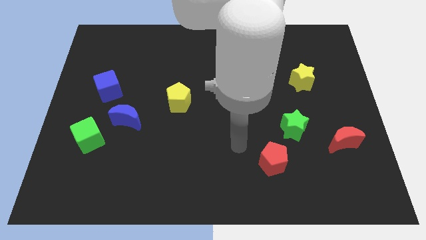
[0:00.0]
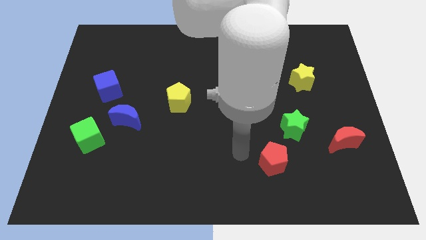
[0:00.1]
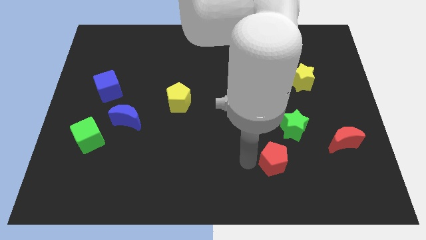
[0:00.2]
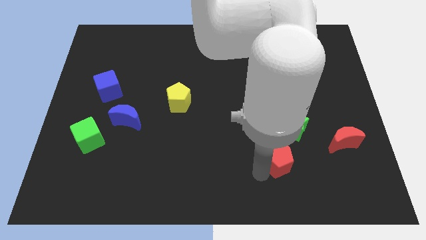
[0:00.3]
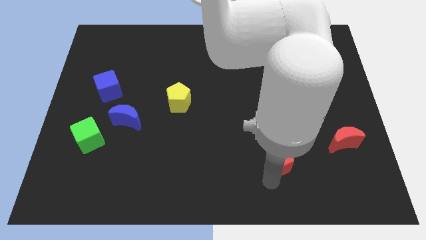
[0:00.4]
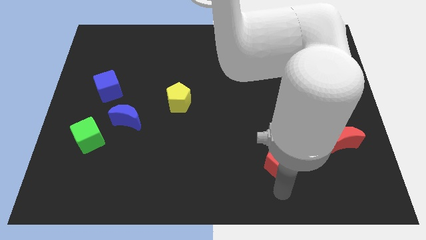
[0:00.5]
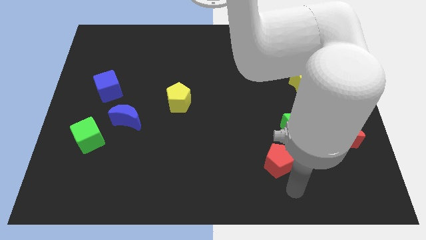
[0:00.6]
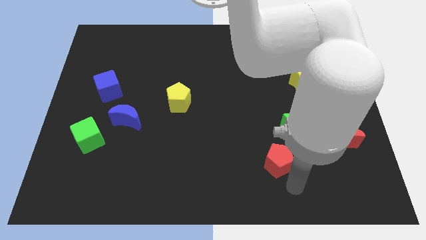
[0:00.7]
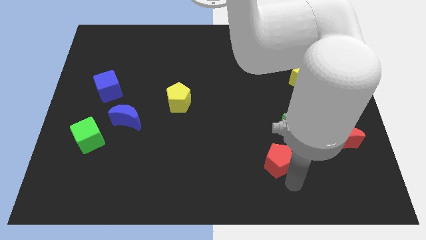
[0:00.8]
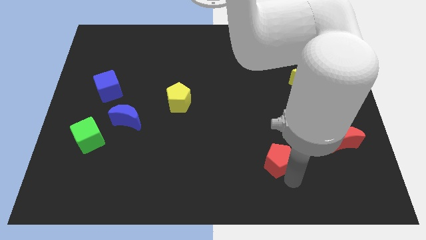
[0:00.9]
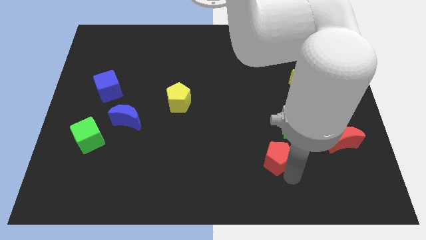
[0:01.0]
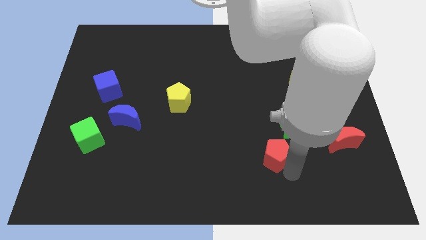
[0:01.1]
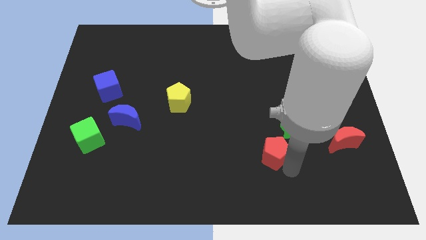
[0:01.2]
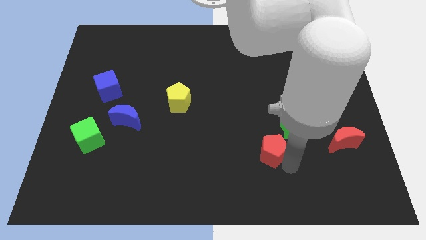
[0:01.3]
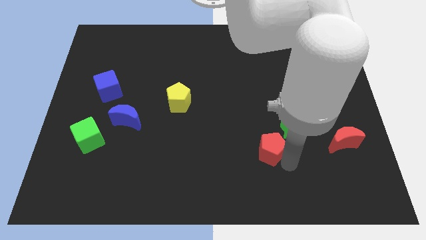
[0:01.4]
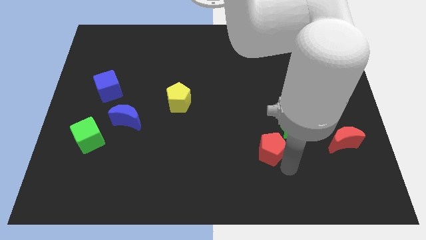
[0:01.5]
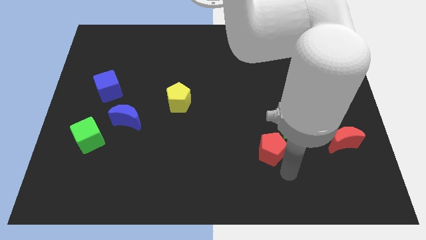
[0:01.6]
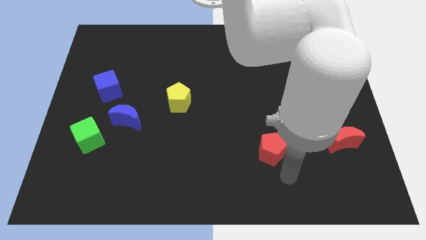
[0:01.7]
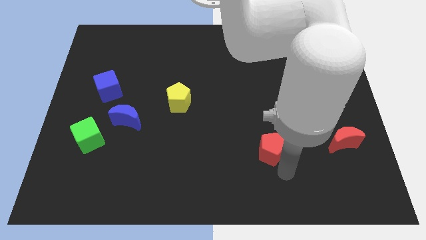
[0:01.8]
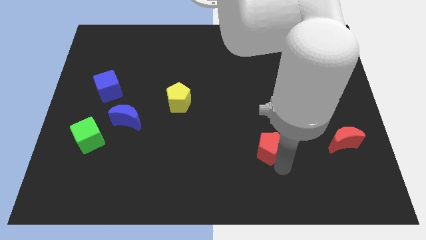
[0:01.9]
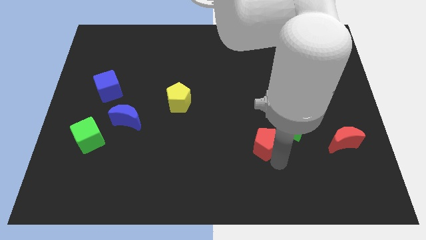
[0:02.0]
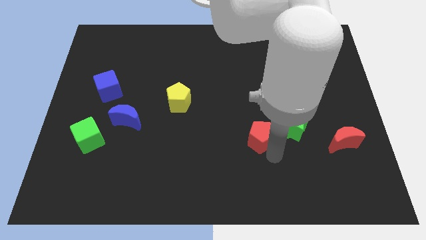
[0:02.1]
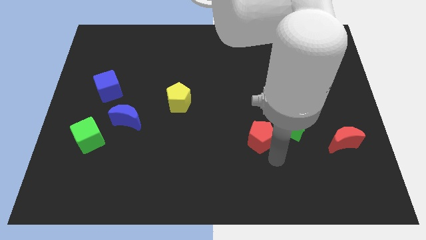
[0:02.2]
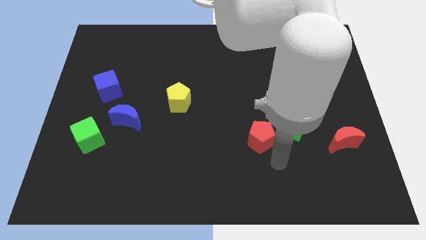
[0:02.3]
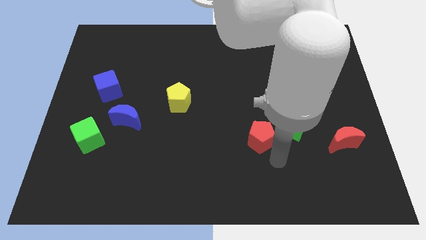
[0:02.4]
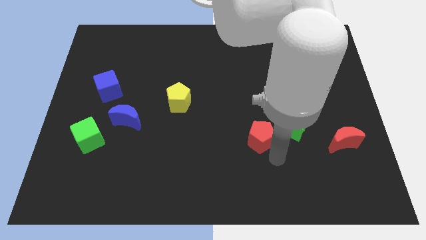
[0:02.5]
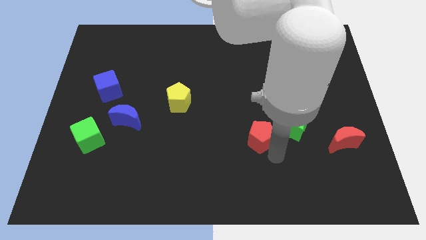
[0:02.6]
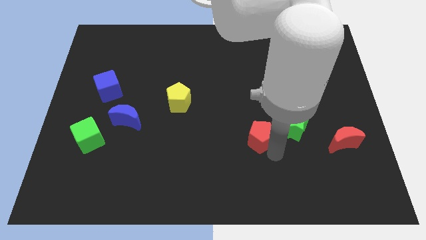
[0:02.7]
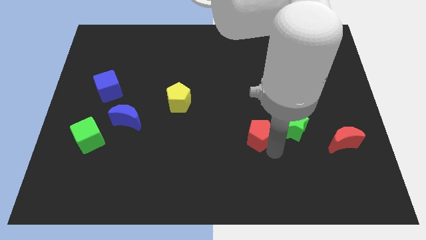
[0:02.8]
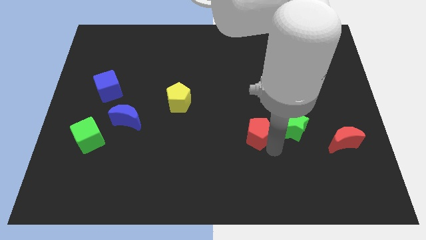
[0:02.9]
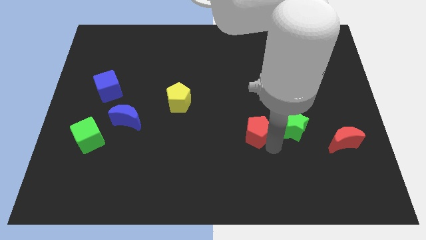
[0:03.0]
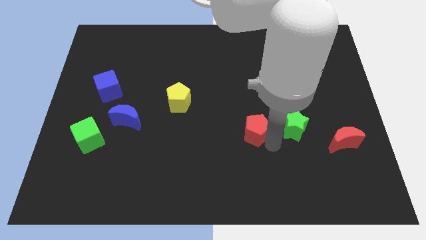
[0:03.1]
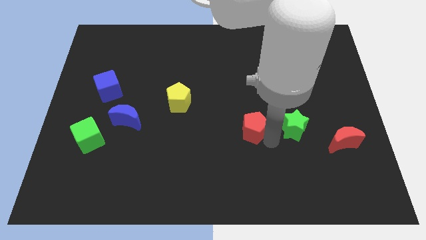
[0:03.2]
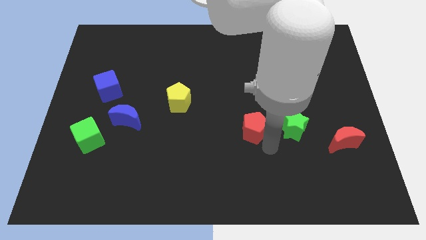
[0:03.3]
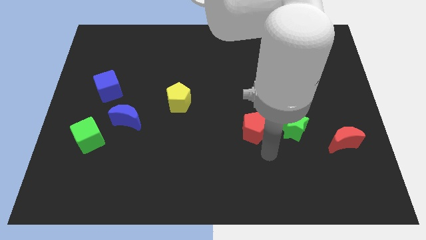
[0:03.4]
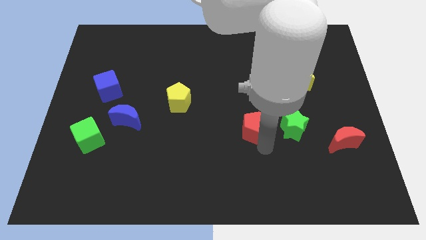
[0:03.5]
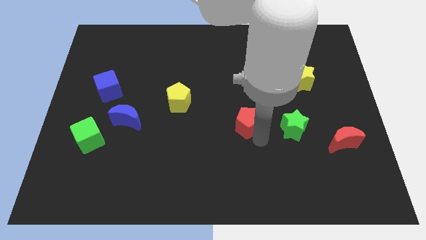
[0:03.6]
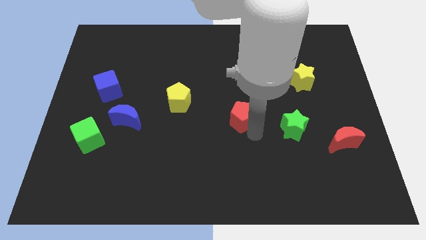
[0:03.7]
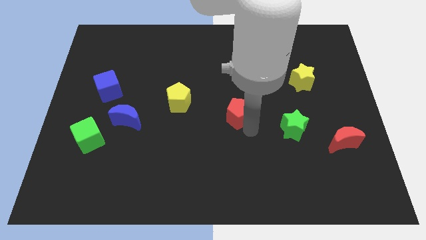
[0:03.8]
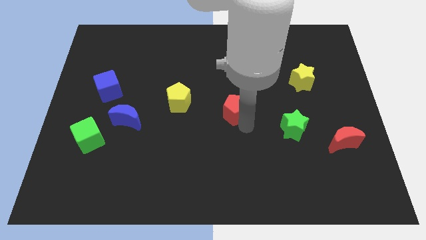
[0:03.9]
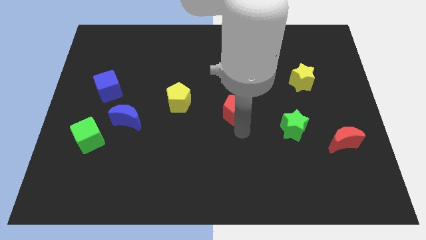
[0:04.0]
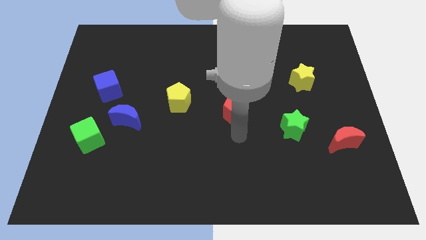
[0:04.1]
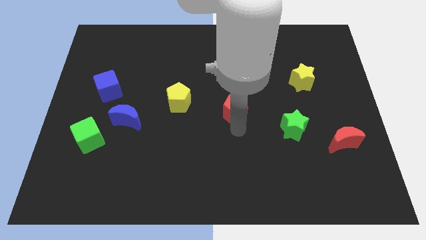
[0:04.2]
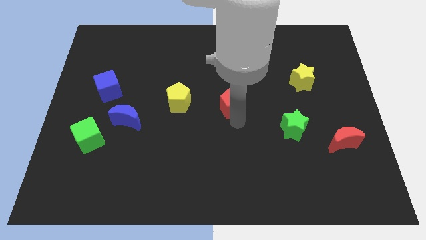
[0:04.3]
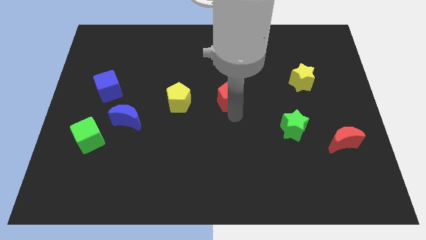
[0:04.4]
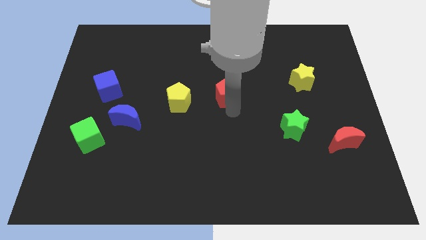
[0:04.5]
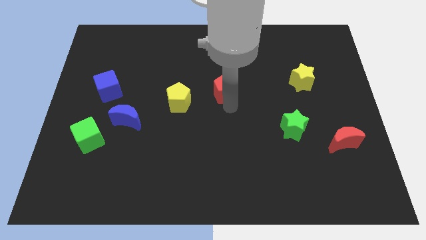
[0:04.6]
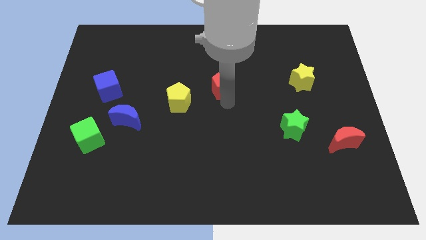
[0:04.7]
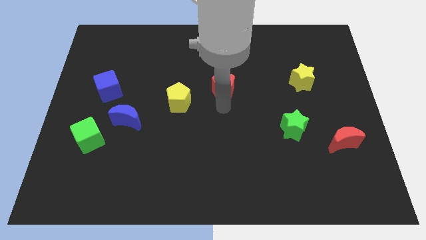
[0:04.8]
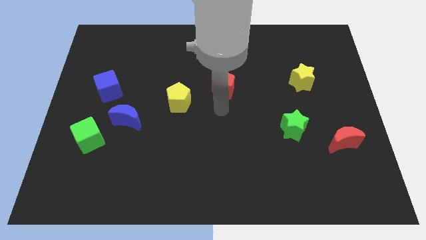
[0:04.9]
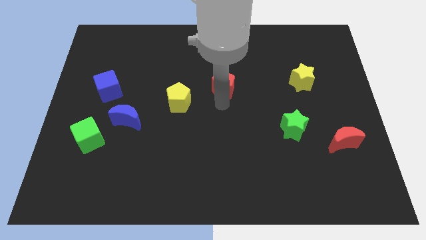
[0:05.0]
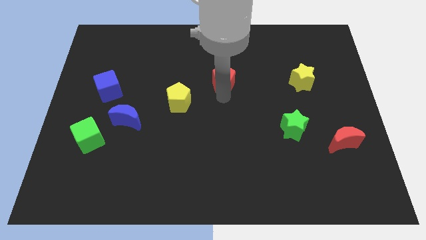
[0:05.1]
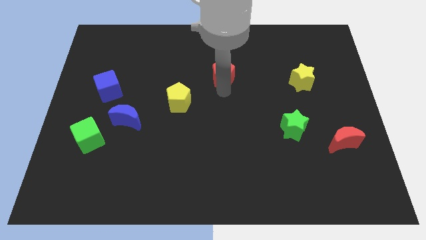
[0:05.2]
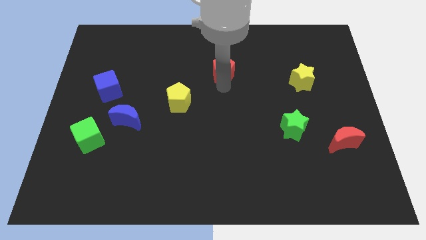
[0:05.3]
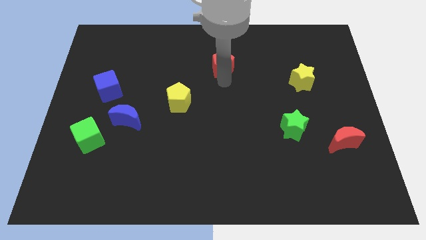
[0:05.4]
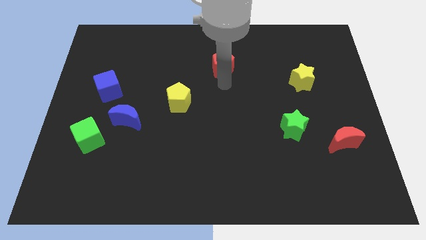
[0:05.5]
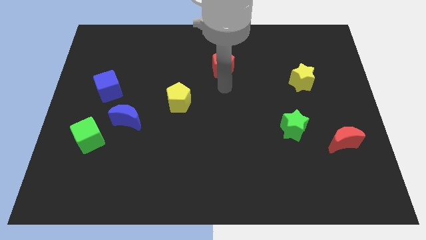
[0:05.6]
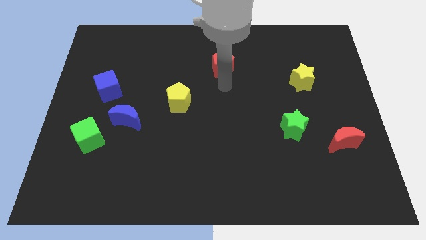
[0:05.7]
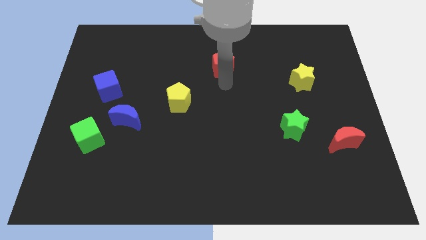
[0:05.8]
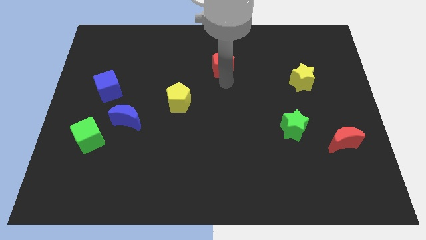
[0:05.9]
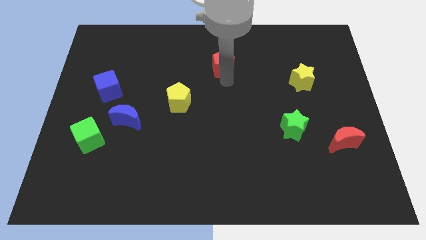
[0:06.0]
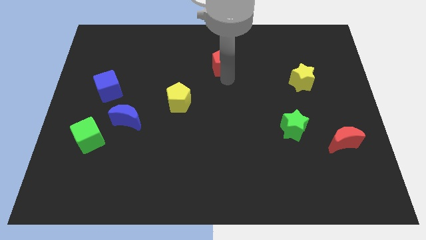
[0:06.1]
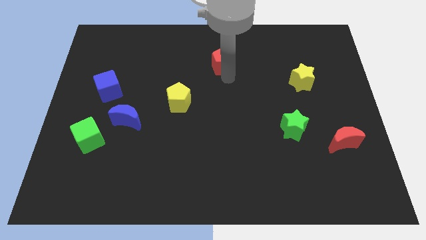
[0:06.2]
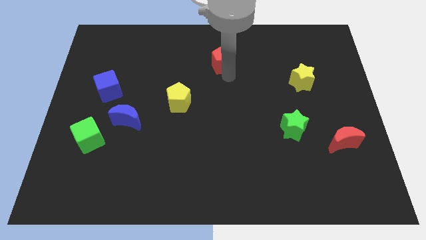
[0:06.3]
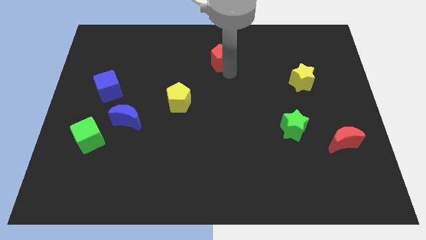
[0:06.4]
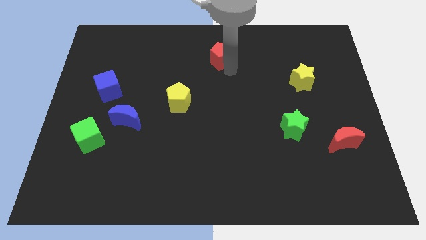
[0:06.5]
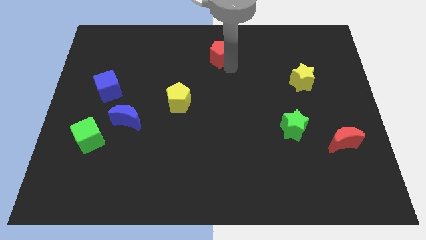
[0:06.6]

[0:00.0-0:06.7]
push the red pentagon to the top
